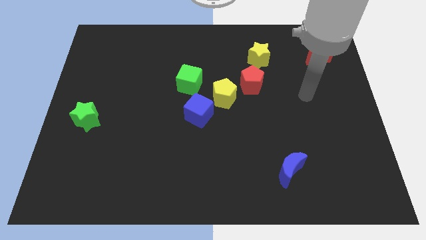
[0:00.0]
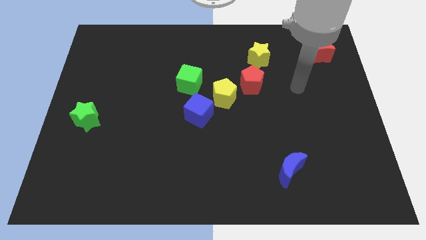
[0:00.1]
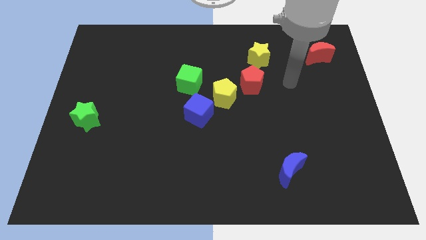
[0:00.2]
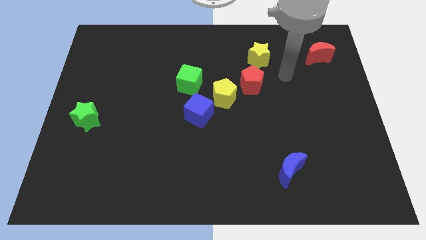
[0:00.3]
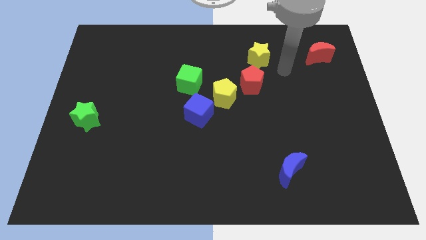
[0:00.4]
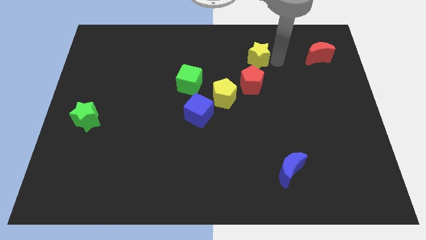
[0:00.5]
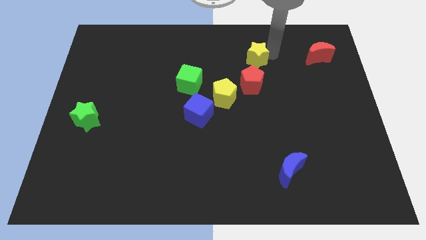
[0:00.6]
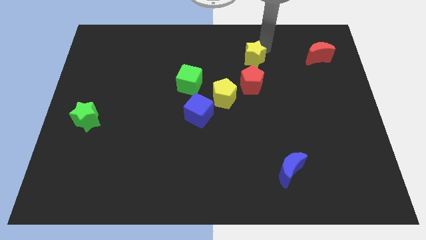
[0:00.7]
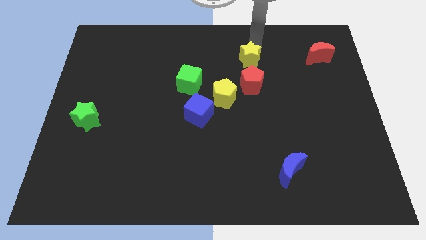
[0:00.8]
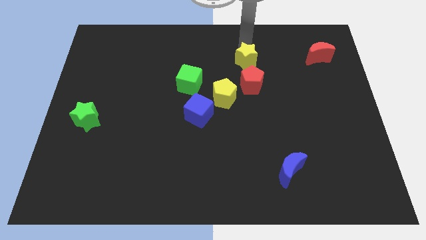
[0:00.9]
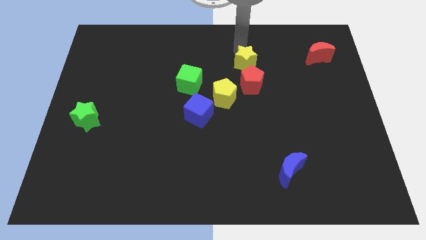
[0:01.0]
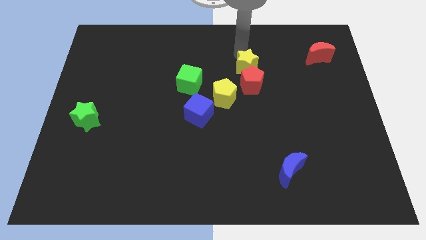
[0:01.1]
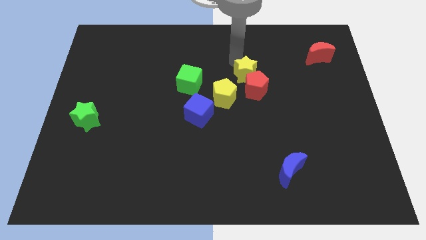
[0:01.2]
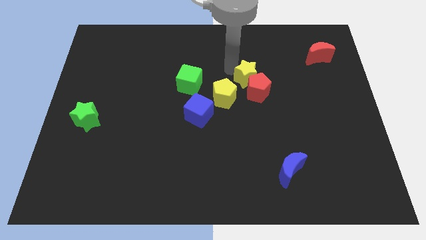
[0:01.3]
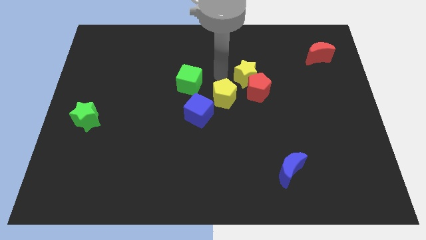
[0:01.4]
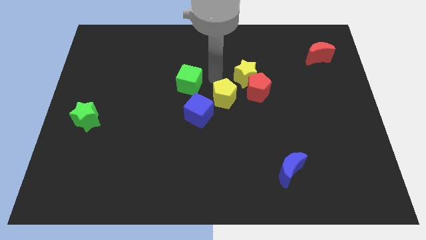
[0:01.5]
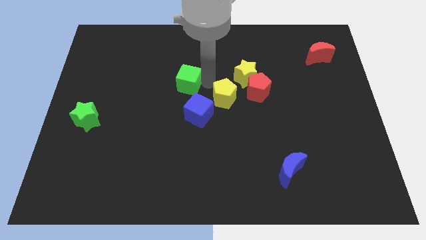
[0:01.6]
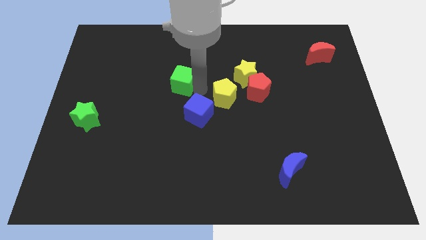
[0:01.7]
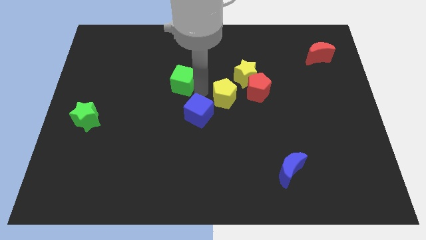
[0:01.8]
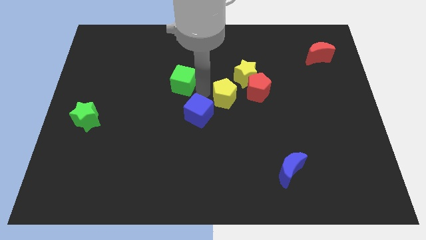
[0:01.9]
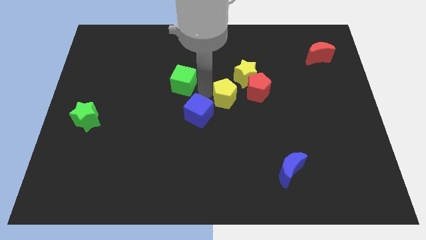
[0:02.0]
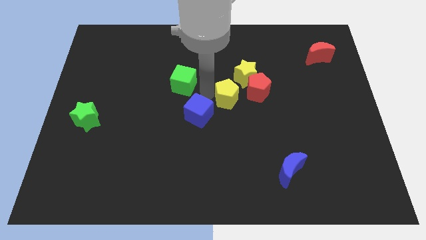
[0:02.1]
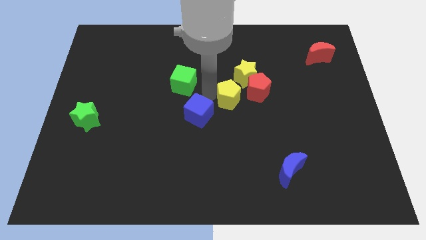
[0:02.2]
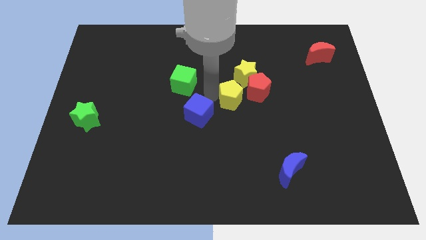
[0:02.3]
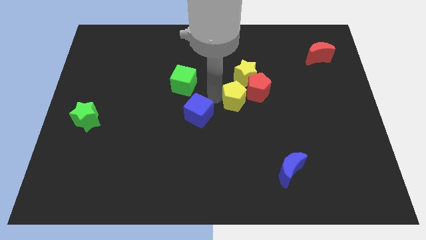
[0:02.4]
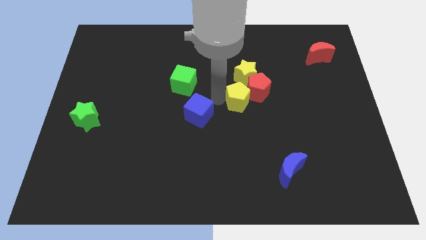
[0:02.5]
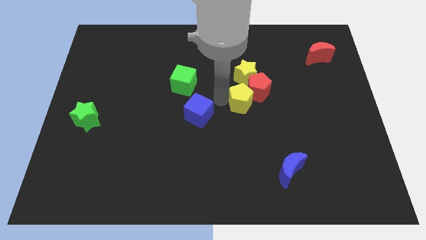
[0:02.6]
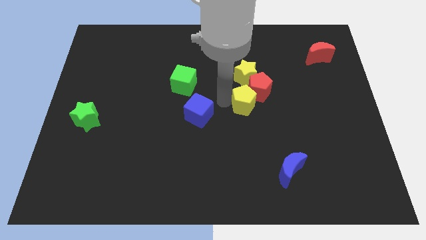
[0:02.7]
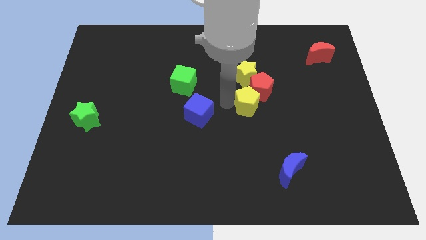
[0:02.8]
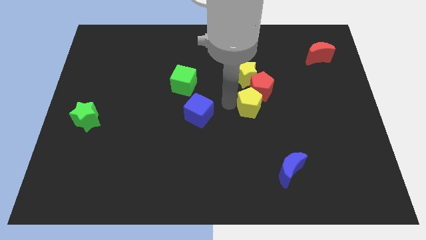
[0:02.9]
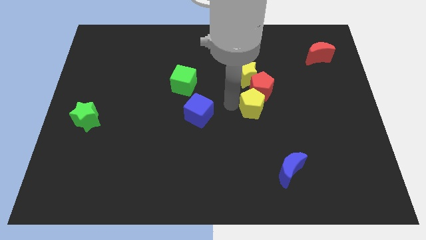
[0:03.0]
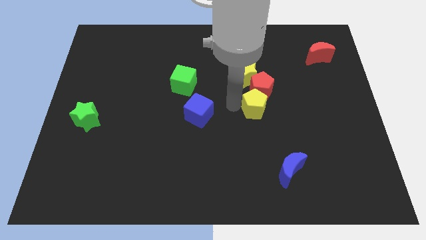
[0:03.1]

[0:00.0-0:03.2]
separate the yellow pentagon from the red pentagon, blue cube, and green cube

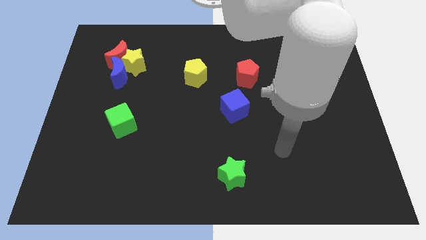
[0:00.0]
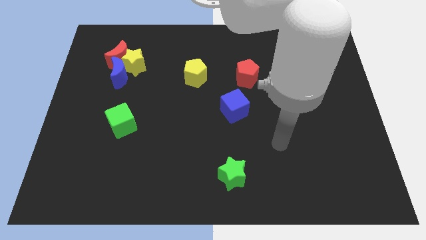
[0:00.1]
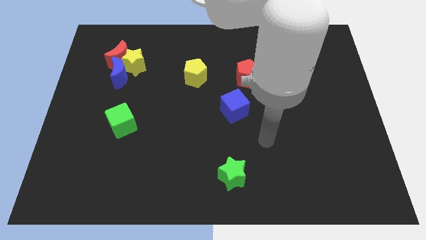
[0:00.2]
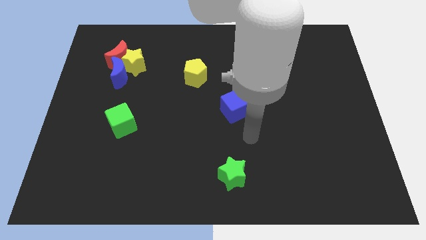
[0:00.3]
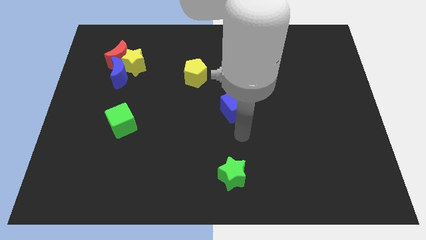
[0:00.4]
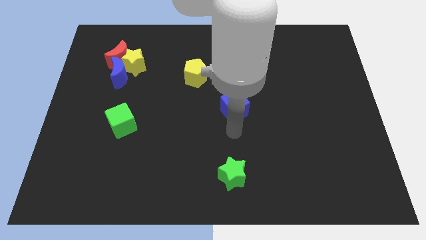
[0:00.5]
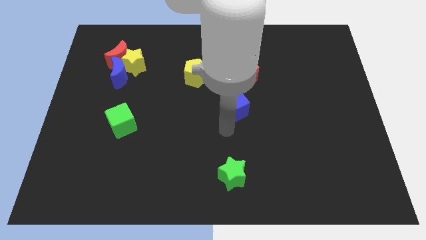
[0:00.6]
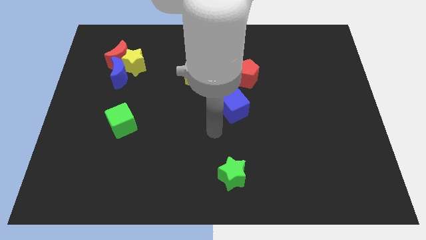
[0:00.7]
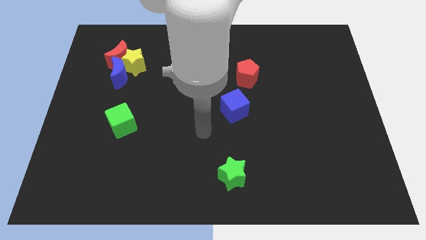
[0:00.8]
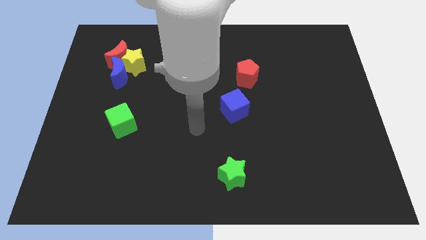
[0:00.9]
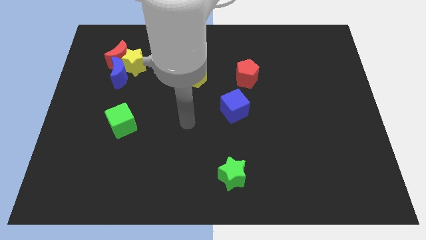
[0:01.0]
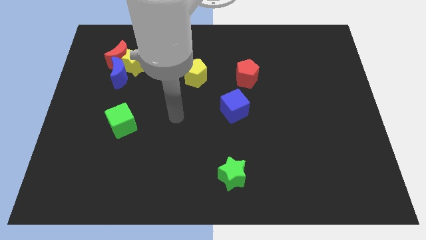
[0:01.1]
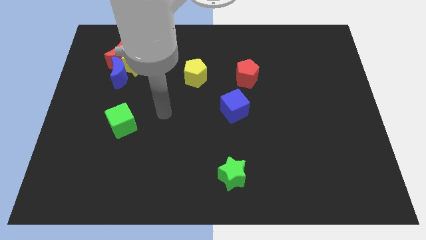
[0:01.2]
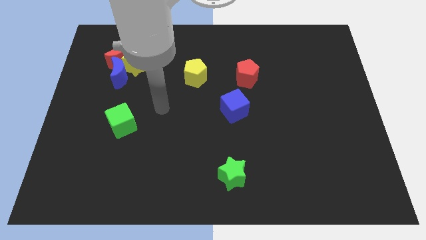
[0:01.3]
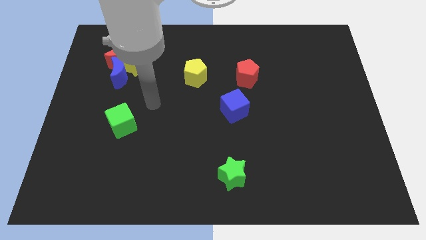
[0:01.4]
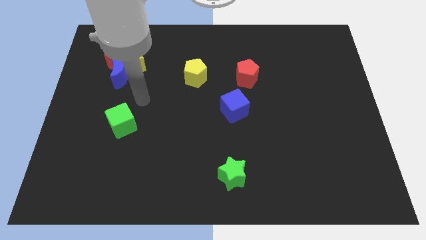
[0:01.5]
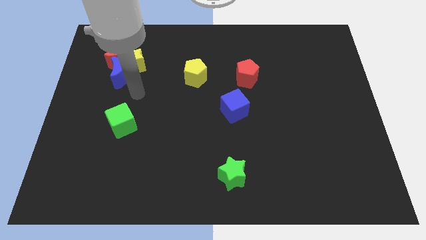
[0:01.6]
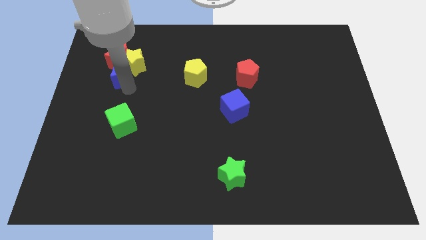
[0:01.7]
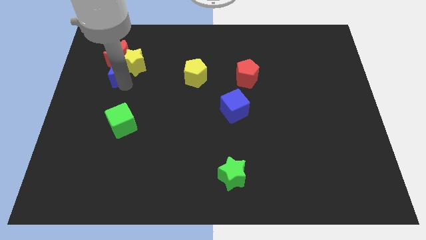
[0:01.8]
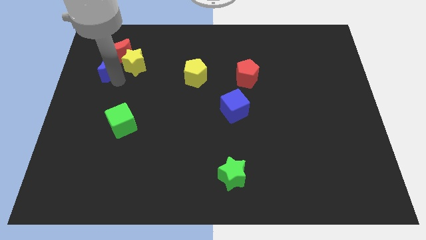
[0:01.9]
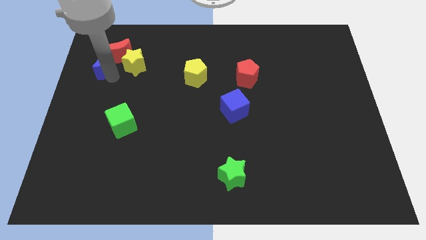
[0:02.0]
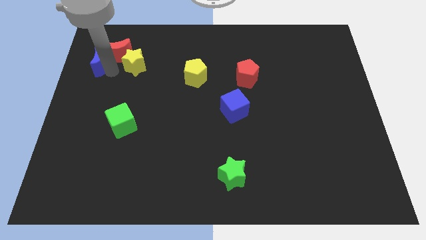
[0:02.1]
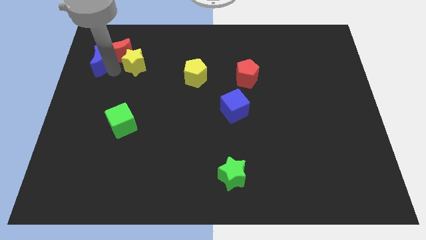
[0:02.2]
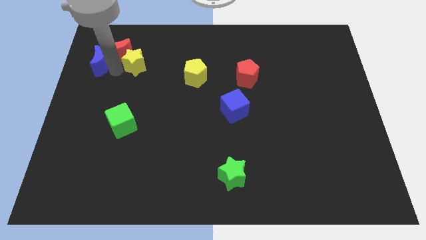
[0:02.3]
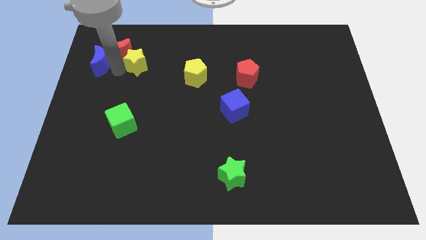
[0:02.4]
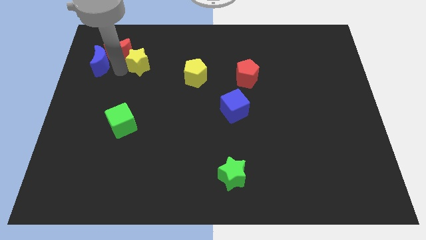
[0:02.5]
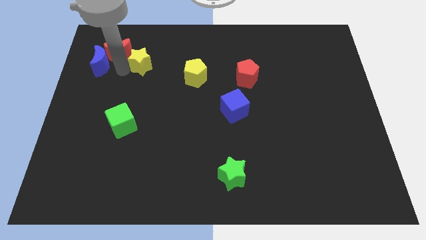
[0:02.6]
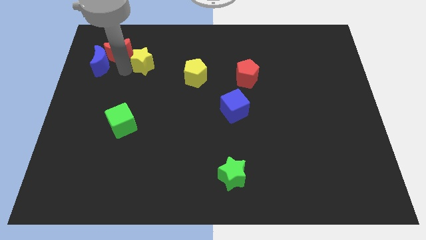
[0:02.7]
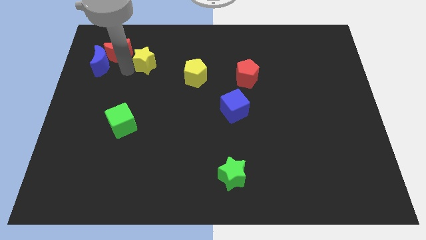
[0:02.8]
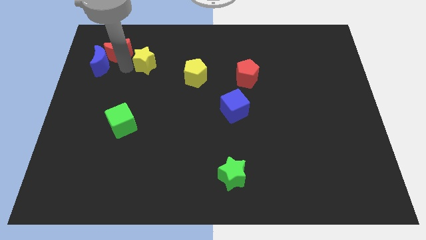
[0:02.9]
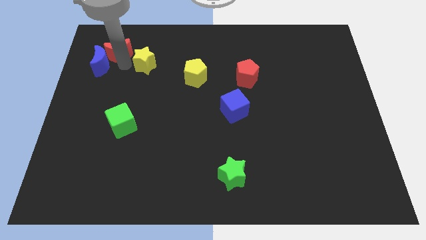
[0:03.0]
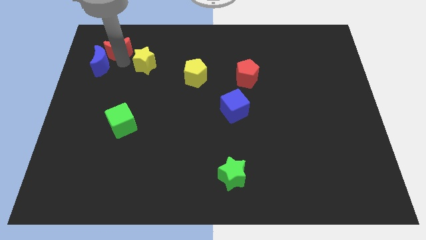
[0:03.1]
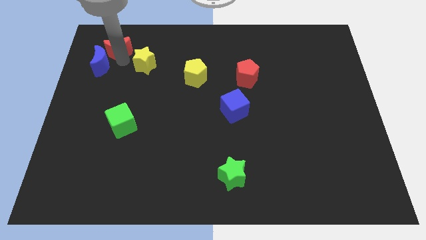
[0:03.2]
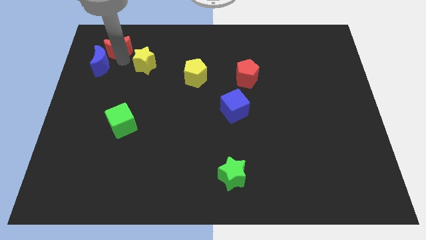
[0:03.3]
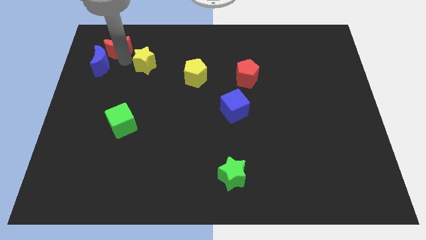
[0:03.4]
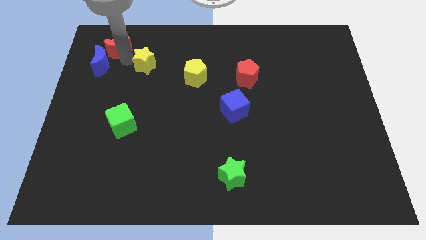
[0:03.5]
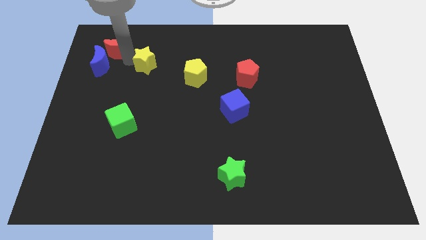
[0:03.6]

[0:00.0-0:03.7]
pull the yellow star apart from the red moon and blue moon

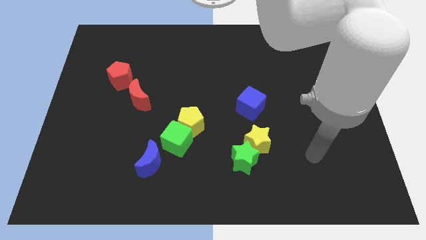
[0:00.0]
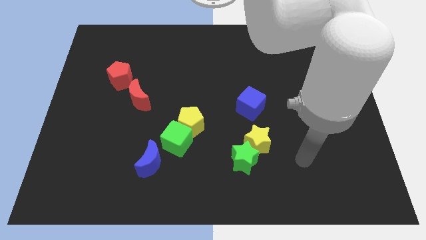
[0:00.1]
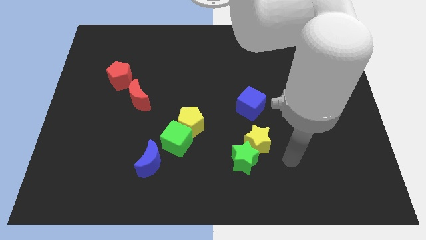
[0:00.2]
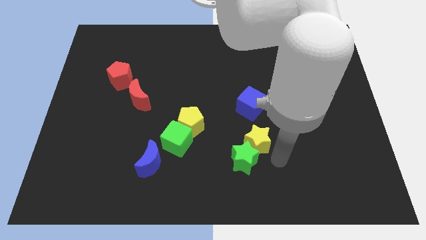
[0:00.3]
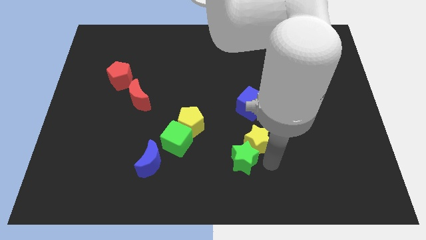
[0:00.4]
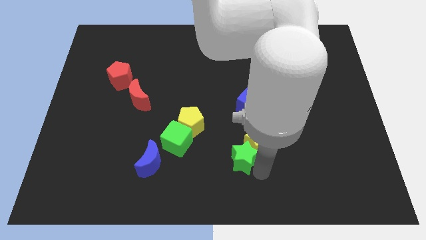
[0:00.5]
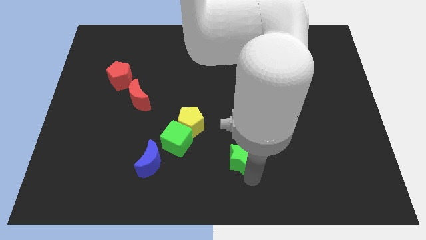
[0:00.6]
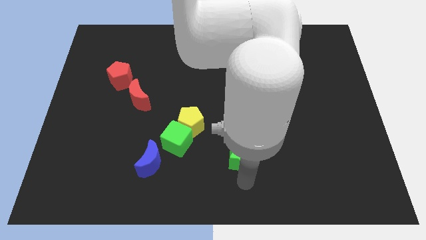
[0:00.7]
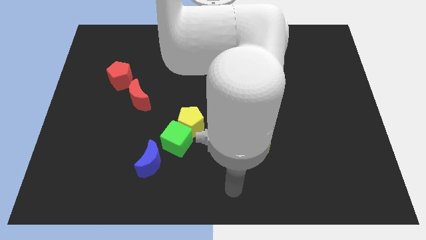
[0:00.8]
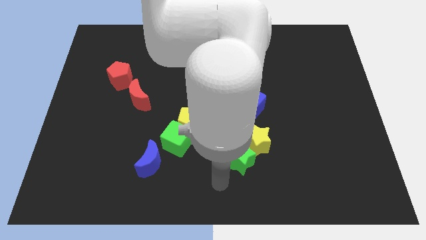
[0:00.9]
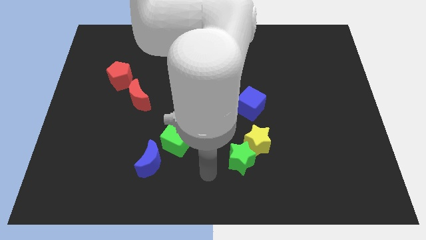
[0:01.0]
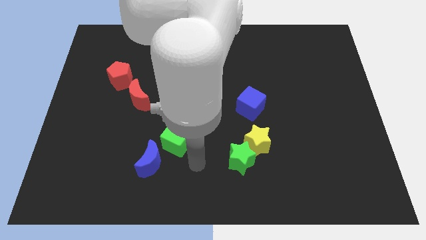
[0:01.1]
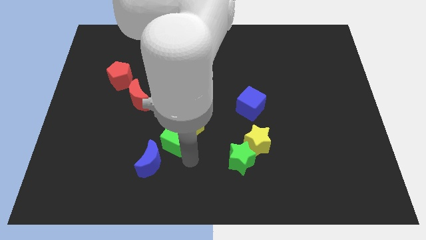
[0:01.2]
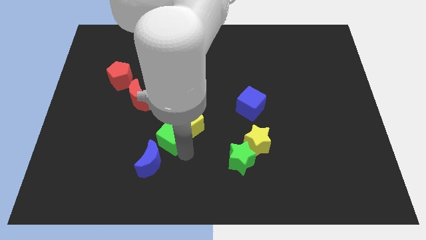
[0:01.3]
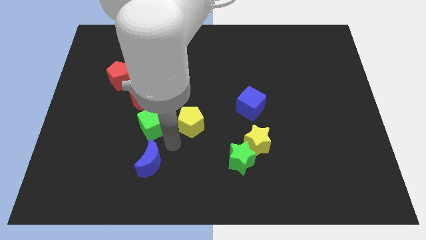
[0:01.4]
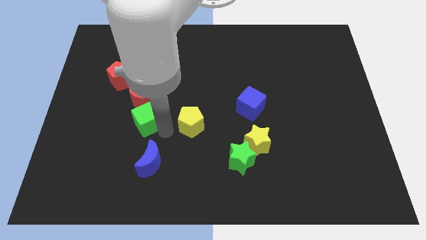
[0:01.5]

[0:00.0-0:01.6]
move the yellow pentagon away from the green cube

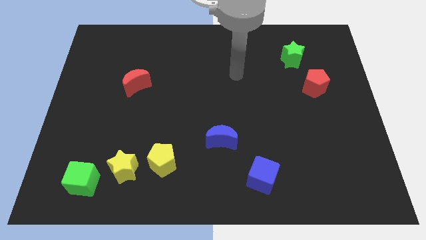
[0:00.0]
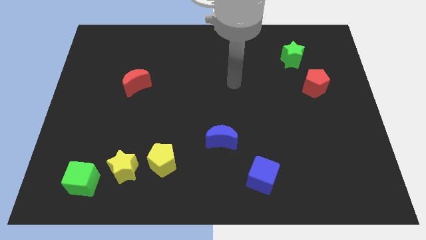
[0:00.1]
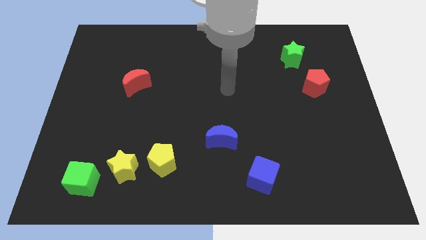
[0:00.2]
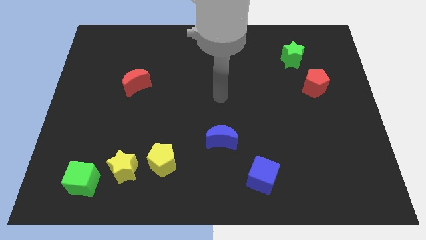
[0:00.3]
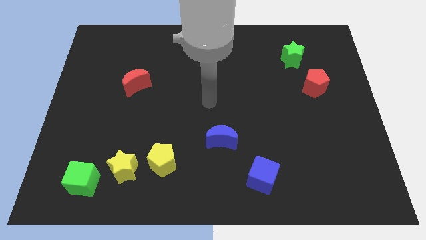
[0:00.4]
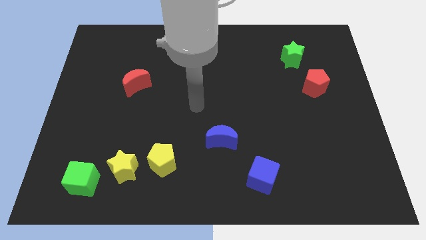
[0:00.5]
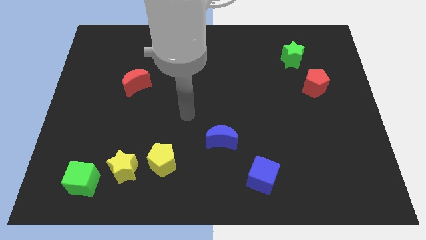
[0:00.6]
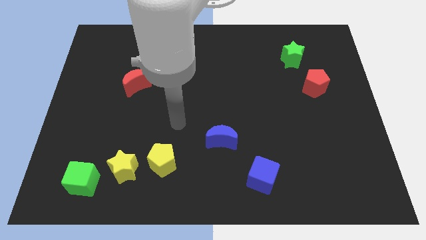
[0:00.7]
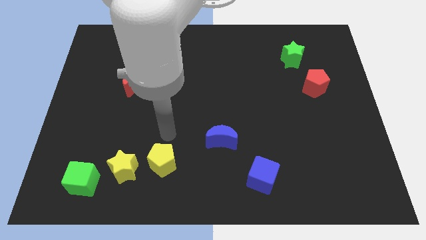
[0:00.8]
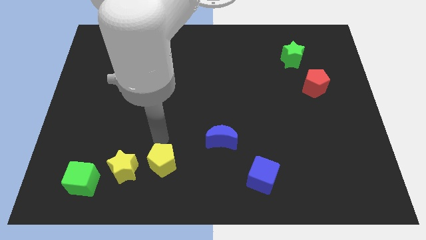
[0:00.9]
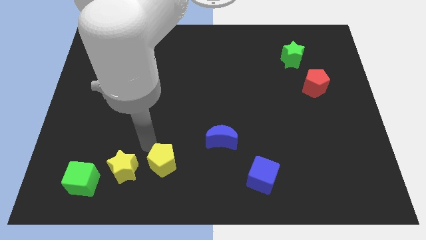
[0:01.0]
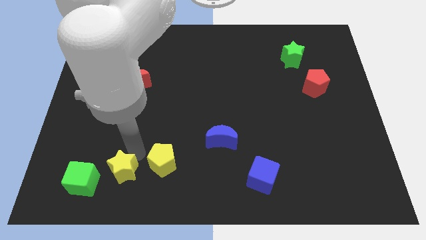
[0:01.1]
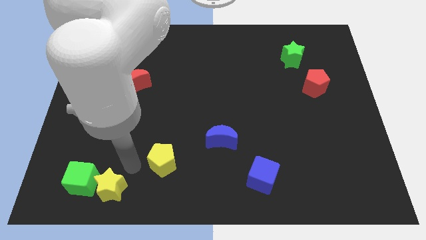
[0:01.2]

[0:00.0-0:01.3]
separate the yellow pentagon from the yellow star
